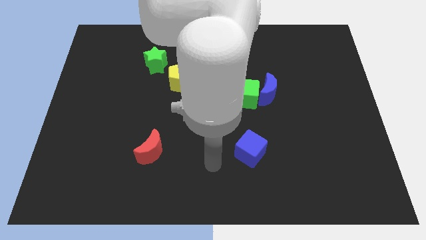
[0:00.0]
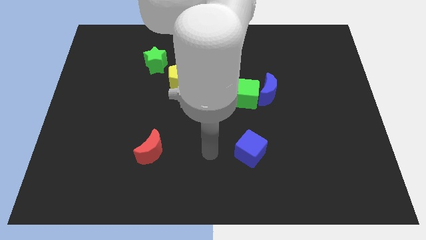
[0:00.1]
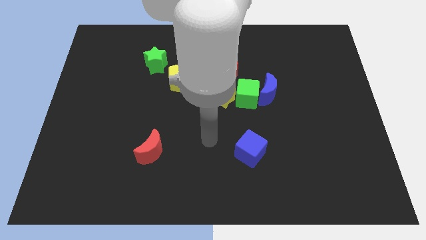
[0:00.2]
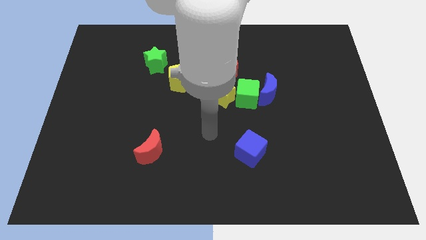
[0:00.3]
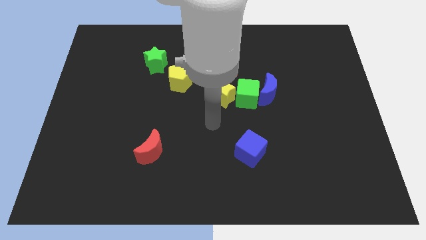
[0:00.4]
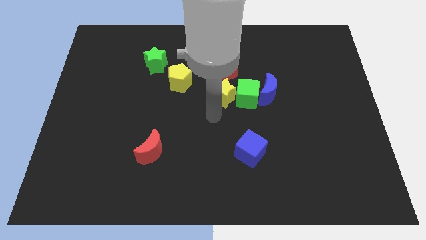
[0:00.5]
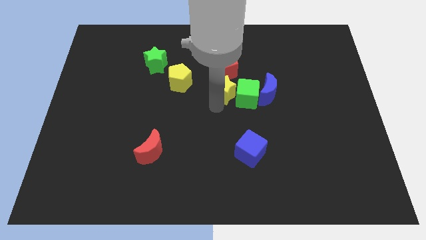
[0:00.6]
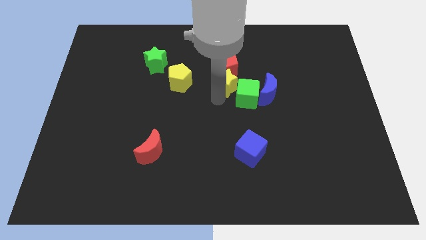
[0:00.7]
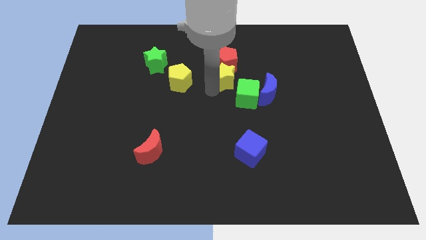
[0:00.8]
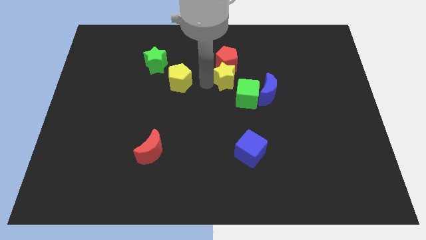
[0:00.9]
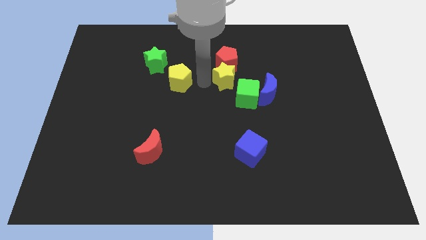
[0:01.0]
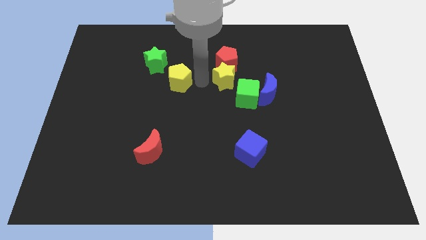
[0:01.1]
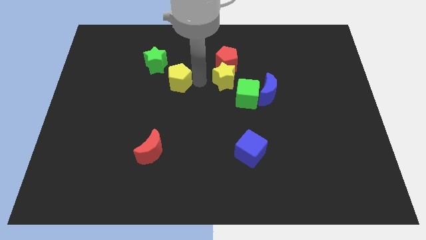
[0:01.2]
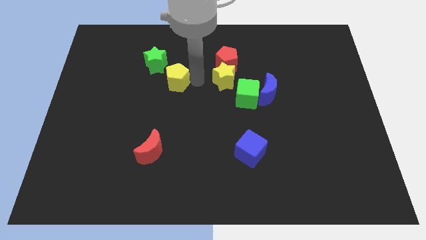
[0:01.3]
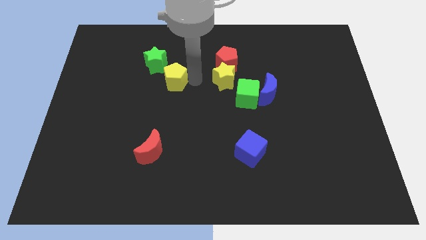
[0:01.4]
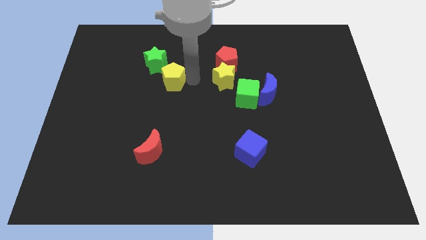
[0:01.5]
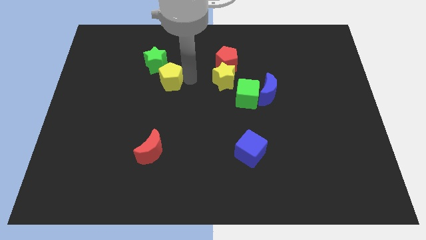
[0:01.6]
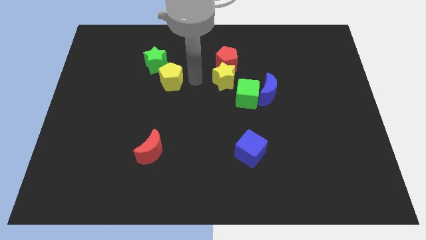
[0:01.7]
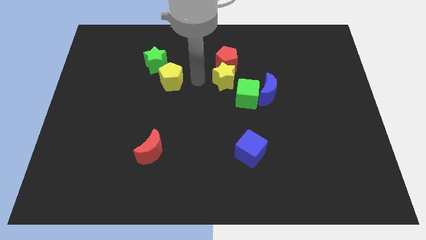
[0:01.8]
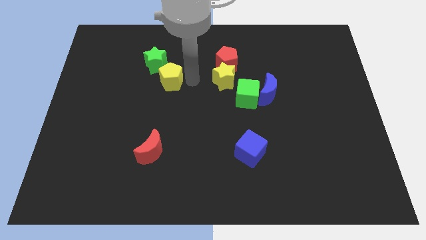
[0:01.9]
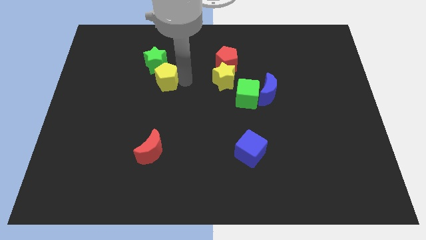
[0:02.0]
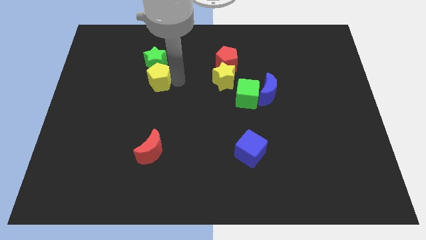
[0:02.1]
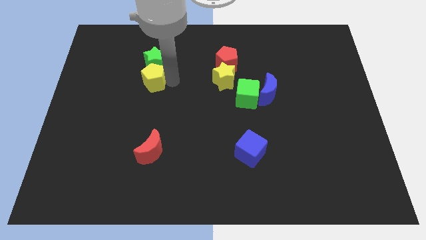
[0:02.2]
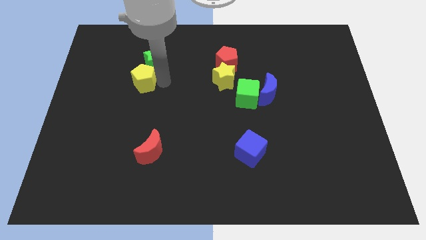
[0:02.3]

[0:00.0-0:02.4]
slightly slide the yellow pentagon left

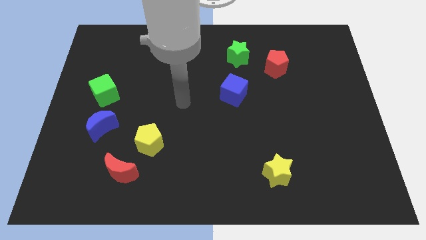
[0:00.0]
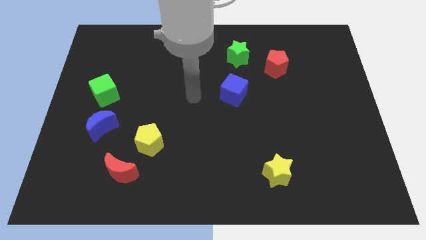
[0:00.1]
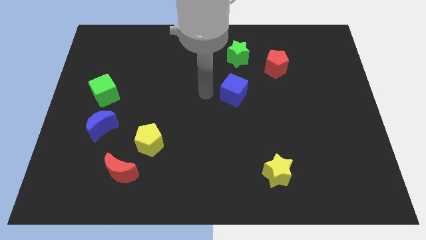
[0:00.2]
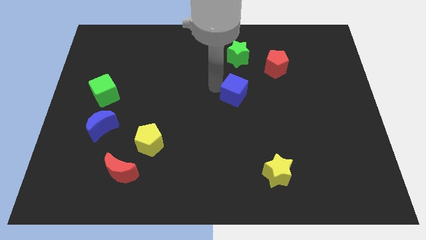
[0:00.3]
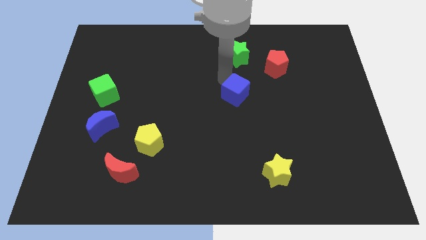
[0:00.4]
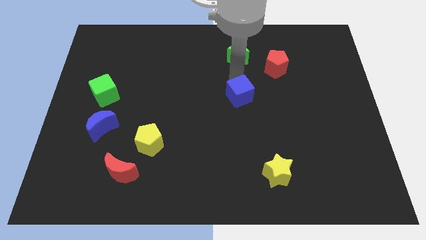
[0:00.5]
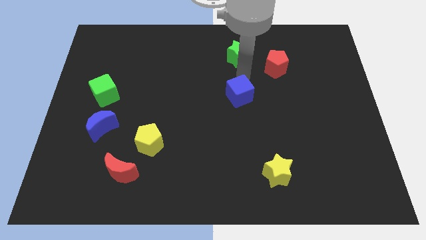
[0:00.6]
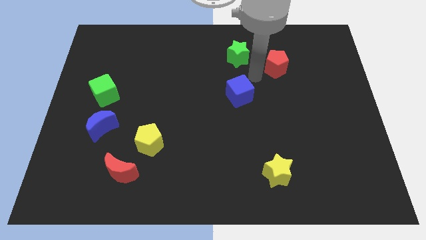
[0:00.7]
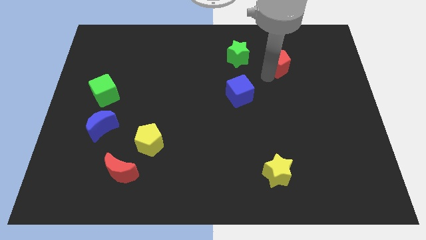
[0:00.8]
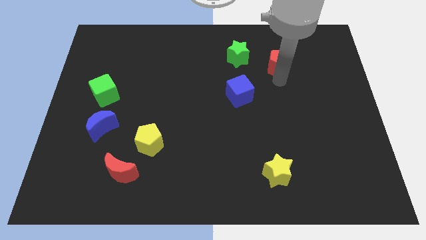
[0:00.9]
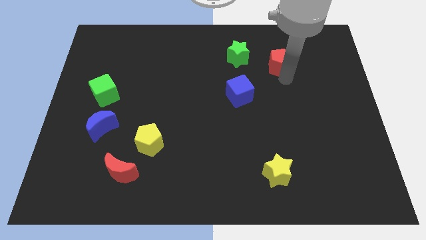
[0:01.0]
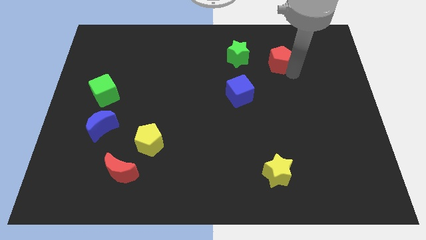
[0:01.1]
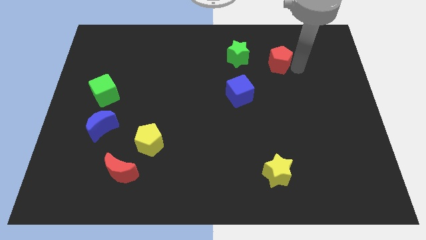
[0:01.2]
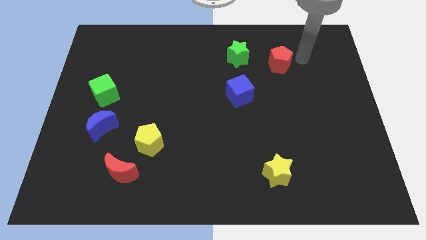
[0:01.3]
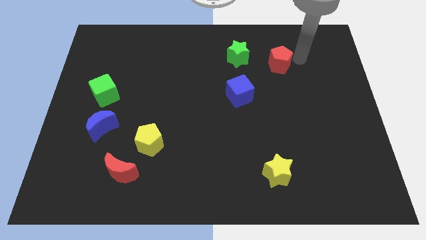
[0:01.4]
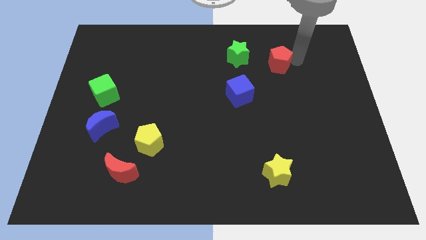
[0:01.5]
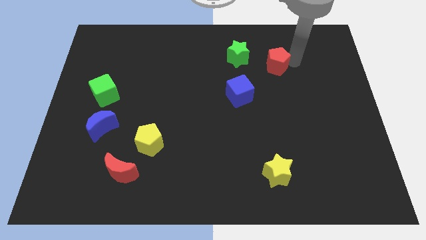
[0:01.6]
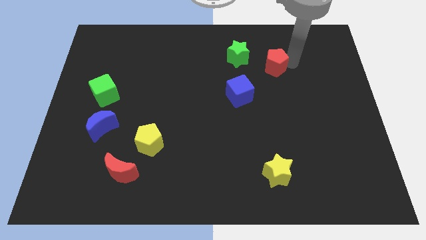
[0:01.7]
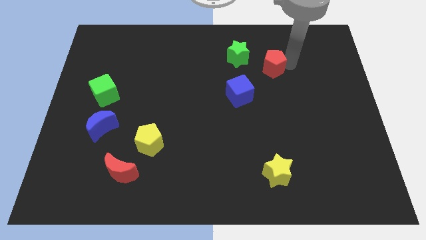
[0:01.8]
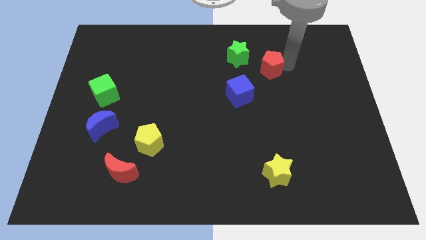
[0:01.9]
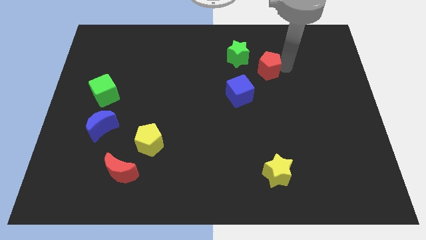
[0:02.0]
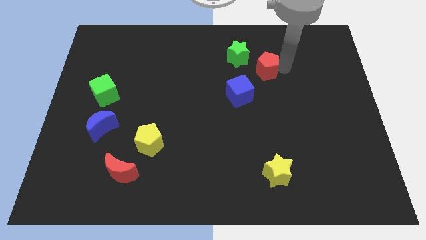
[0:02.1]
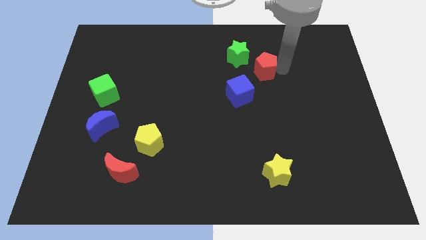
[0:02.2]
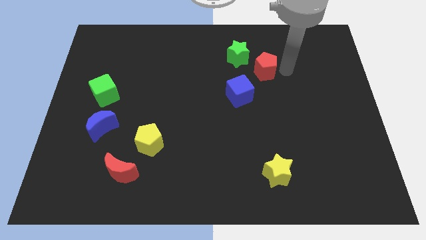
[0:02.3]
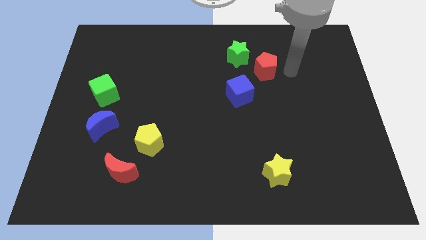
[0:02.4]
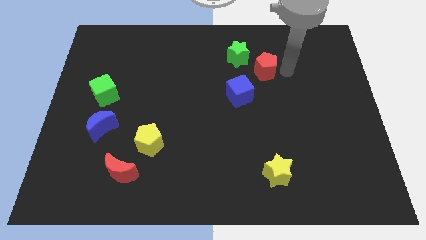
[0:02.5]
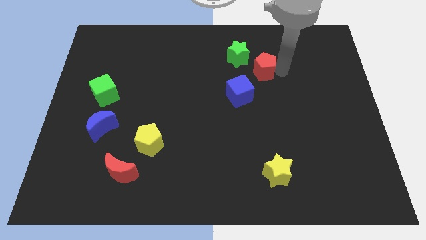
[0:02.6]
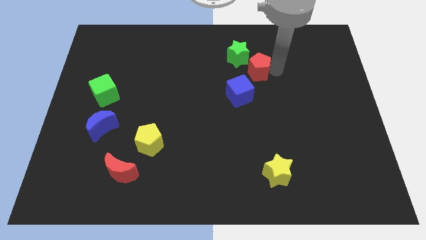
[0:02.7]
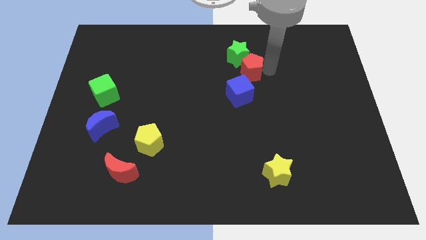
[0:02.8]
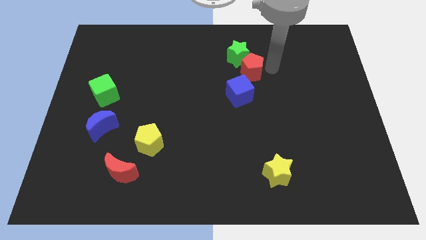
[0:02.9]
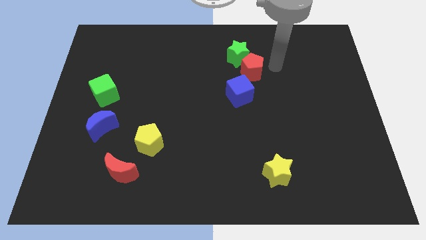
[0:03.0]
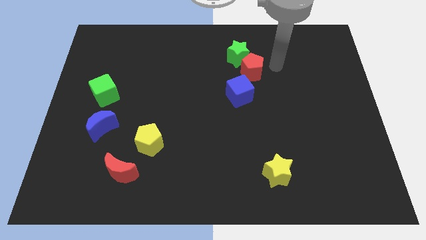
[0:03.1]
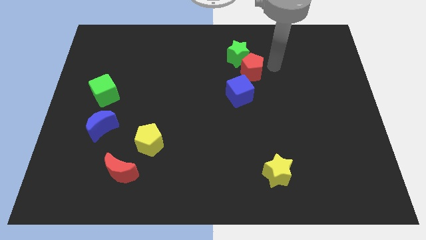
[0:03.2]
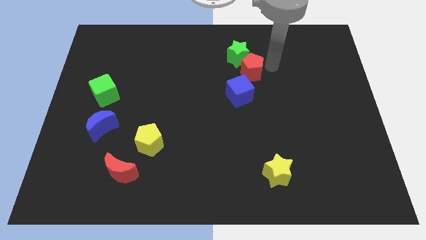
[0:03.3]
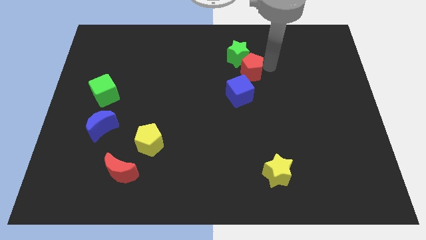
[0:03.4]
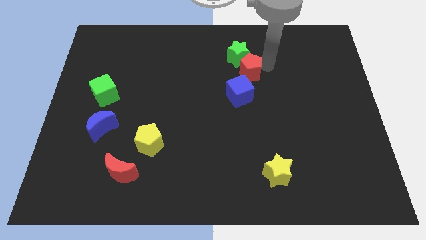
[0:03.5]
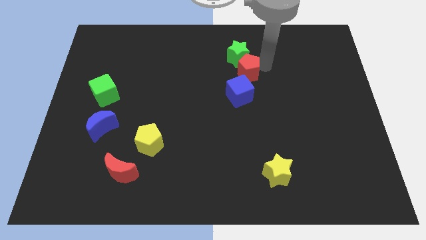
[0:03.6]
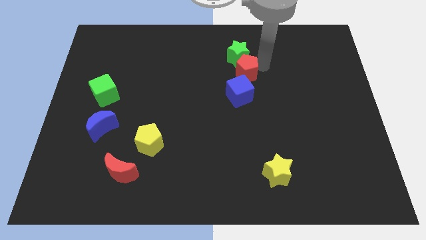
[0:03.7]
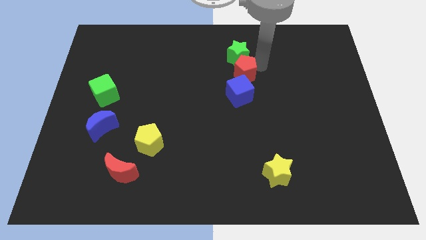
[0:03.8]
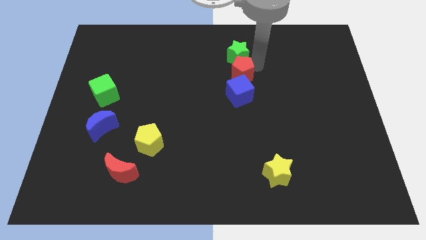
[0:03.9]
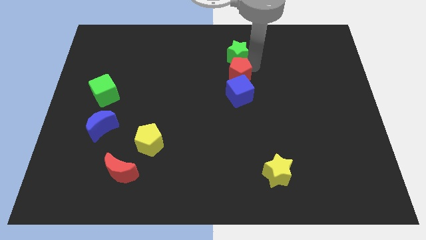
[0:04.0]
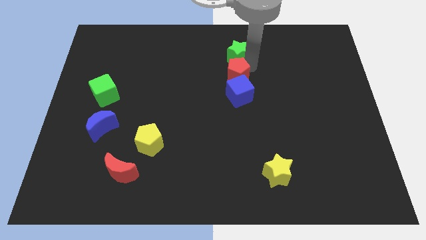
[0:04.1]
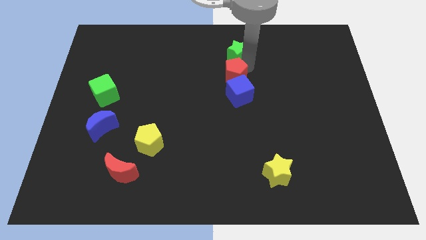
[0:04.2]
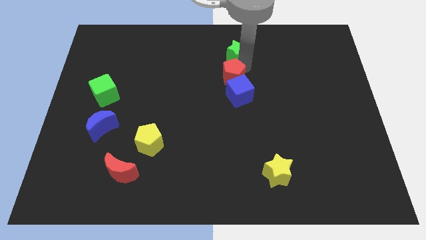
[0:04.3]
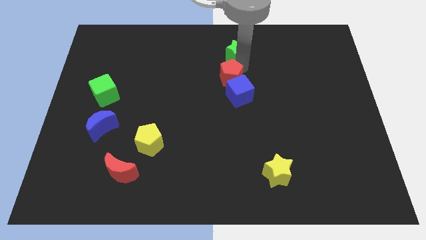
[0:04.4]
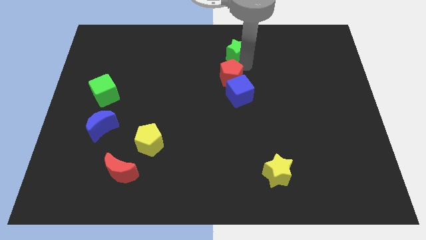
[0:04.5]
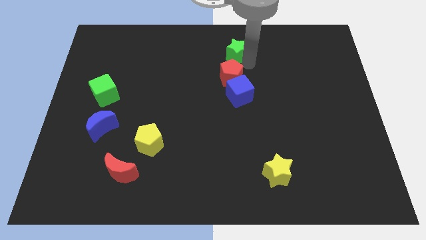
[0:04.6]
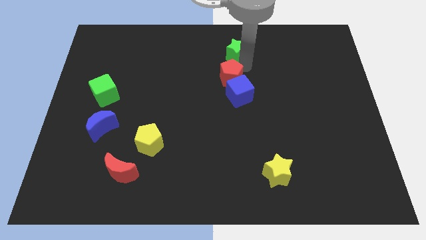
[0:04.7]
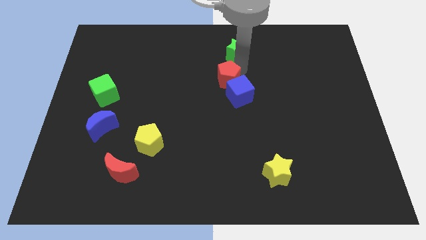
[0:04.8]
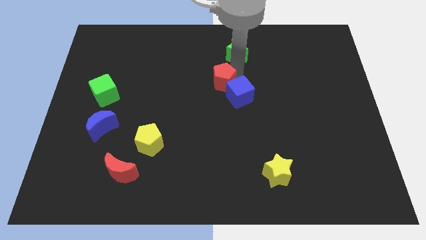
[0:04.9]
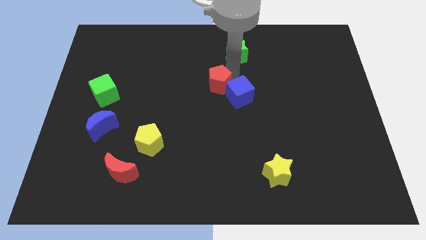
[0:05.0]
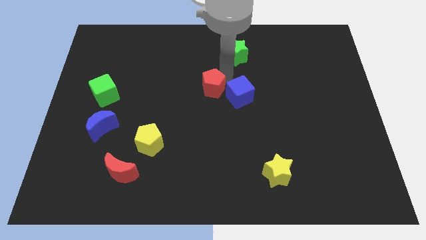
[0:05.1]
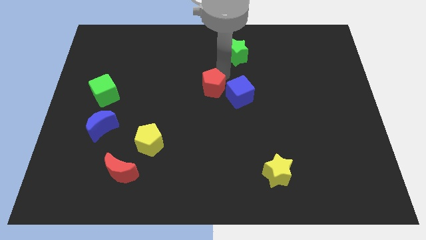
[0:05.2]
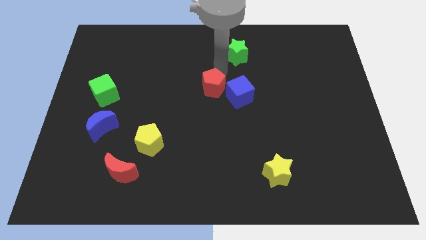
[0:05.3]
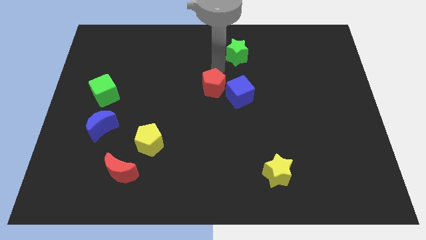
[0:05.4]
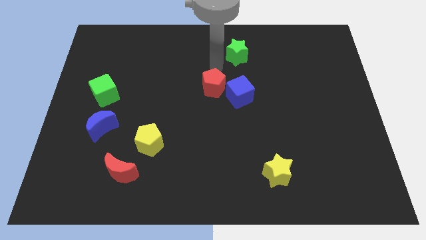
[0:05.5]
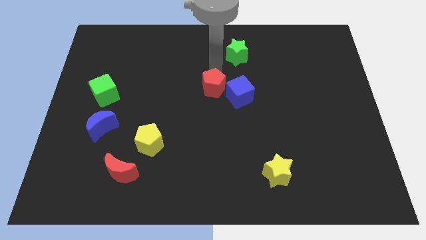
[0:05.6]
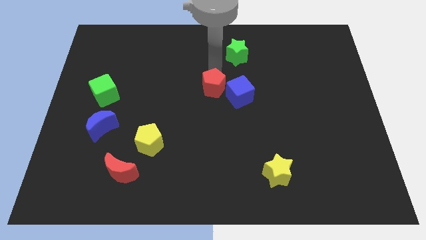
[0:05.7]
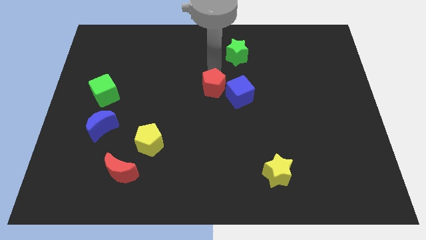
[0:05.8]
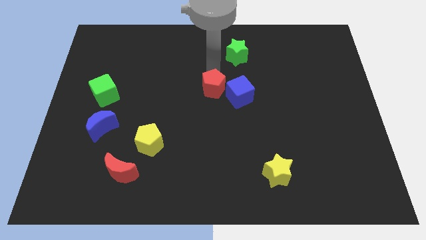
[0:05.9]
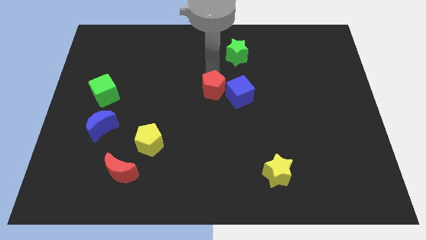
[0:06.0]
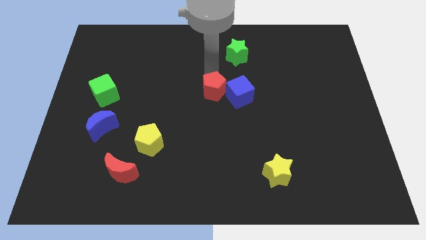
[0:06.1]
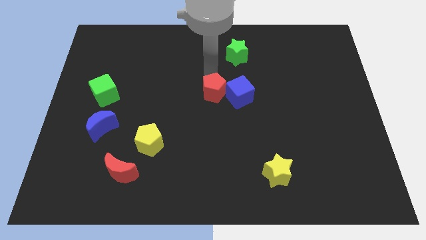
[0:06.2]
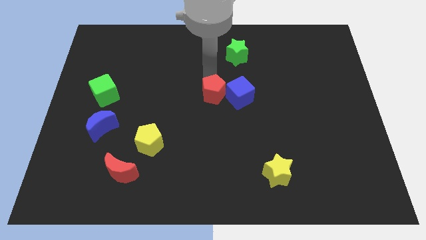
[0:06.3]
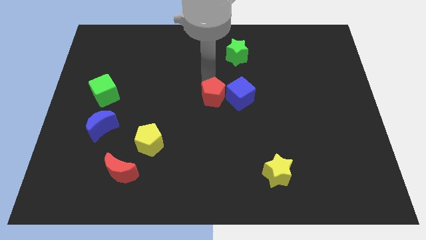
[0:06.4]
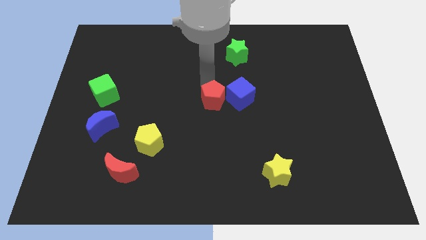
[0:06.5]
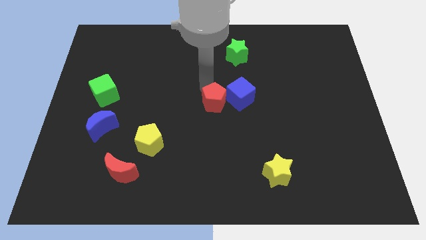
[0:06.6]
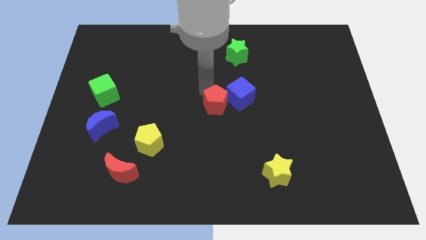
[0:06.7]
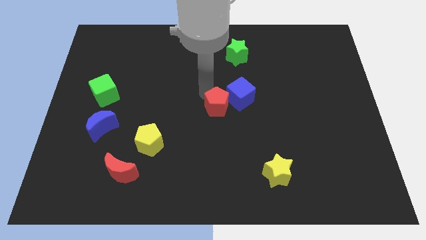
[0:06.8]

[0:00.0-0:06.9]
push the red pentagon downwards and to the left
